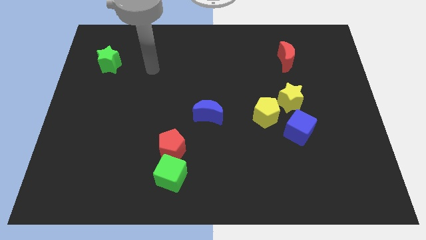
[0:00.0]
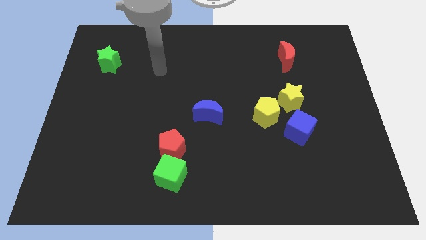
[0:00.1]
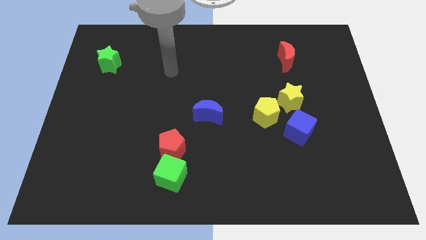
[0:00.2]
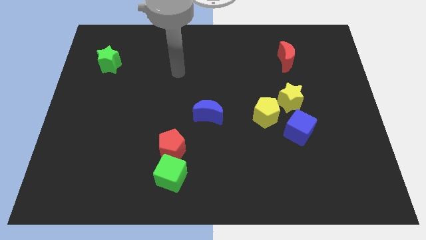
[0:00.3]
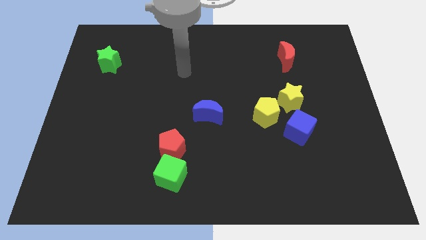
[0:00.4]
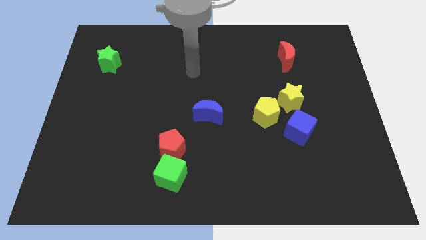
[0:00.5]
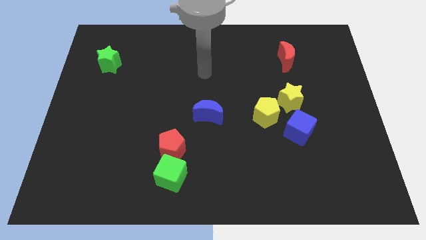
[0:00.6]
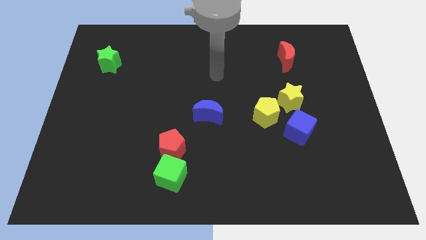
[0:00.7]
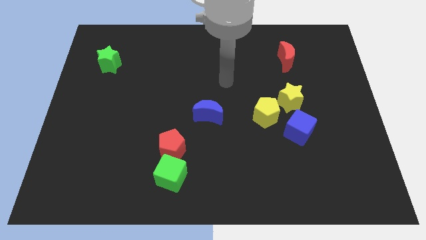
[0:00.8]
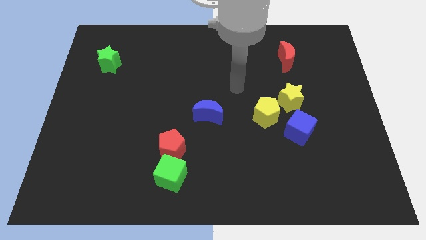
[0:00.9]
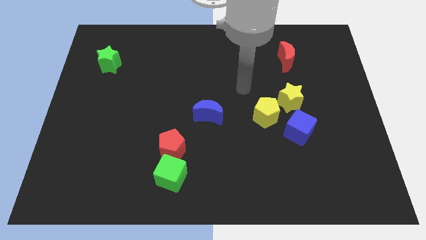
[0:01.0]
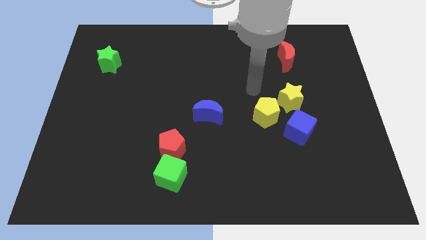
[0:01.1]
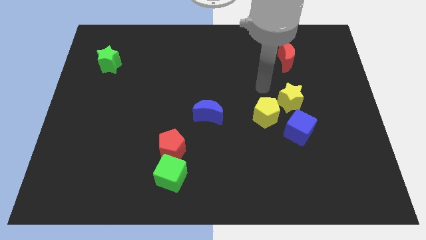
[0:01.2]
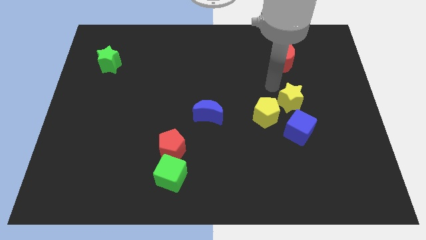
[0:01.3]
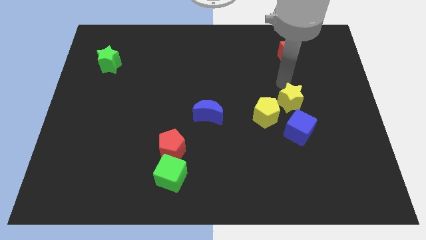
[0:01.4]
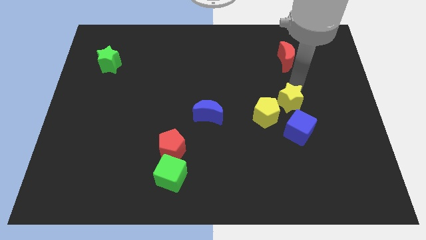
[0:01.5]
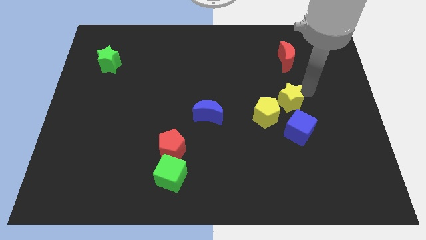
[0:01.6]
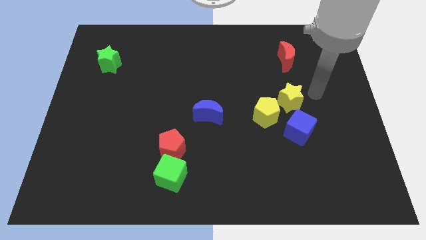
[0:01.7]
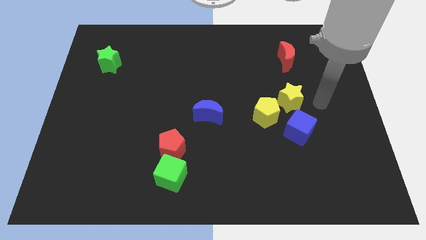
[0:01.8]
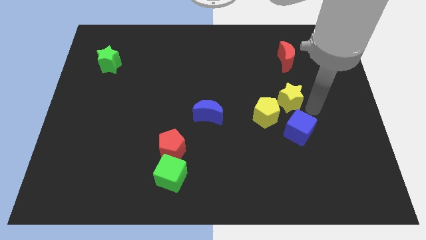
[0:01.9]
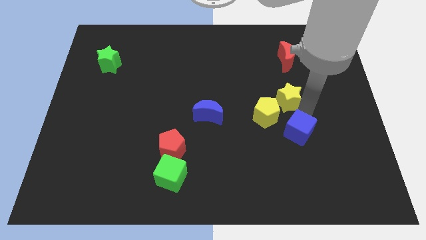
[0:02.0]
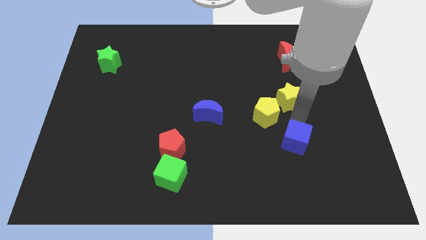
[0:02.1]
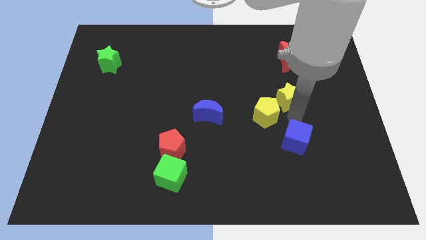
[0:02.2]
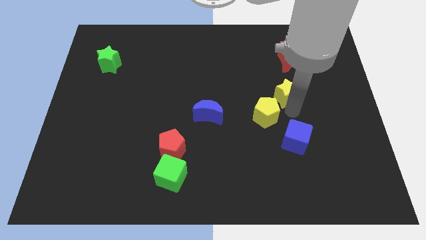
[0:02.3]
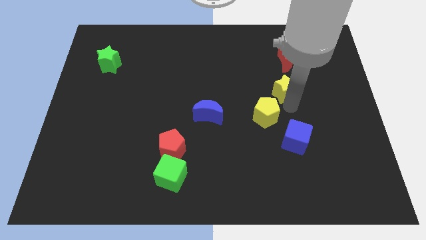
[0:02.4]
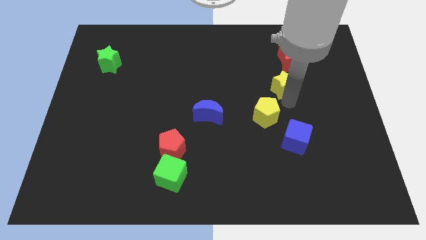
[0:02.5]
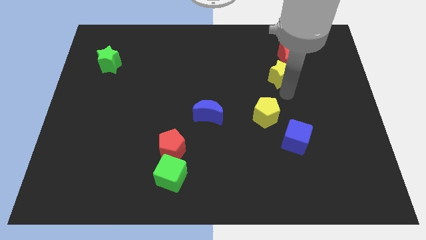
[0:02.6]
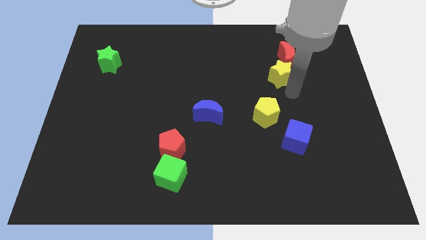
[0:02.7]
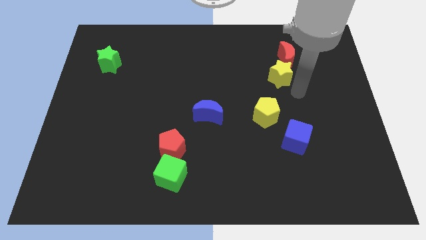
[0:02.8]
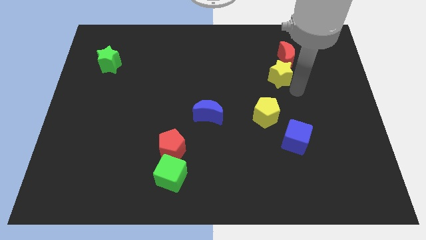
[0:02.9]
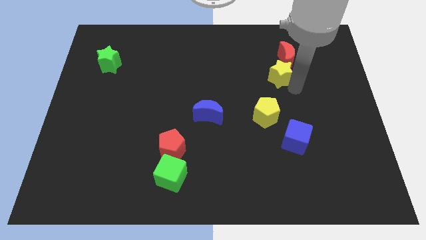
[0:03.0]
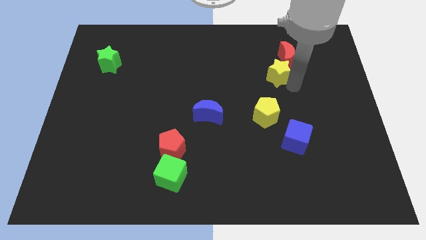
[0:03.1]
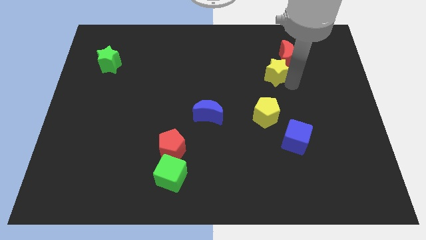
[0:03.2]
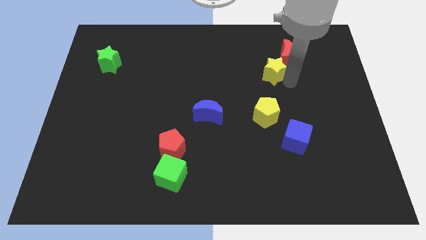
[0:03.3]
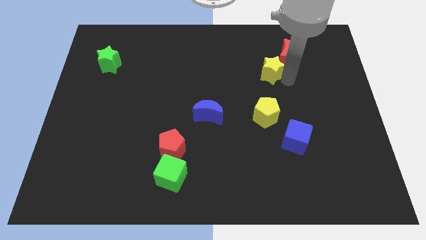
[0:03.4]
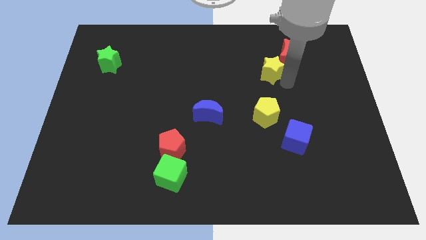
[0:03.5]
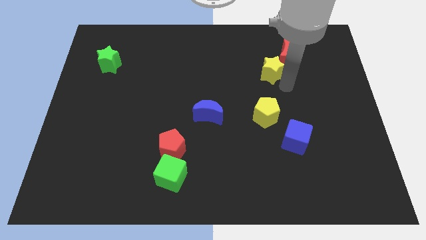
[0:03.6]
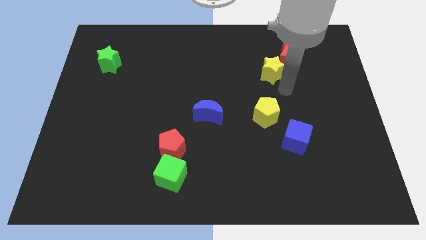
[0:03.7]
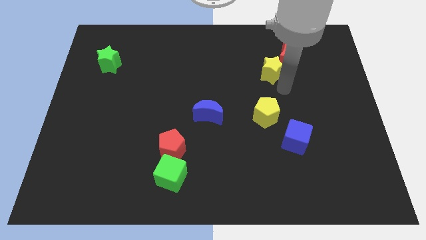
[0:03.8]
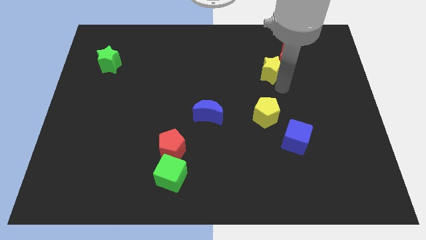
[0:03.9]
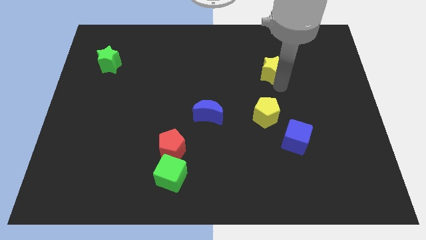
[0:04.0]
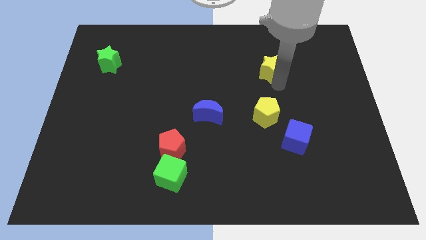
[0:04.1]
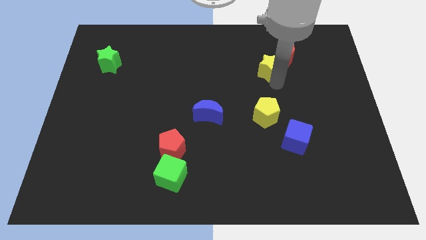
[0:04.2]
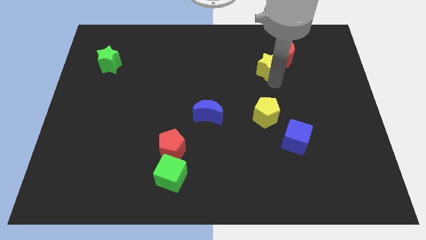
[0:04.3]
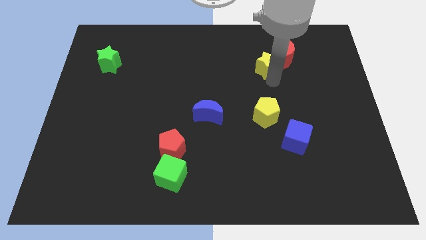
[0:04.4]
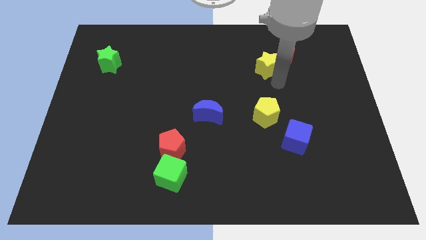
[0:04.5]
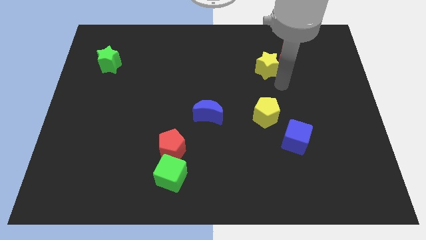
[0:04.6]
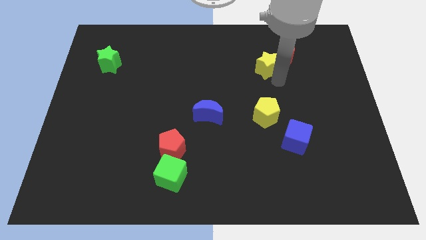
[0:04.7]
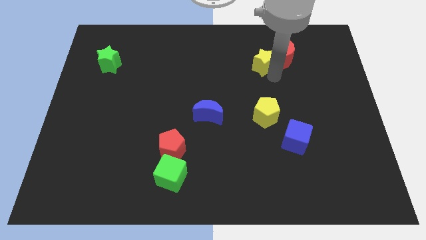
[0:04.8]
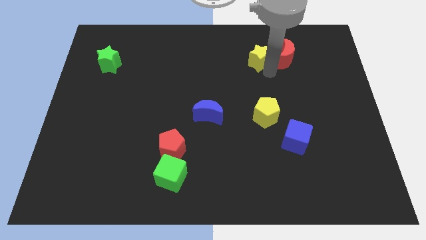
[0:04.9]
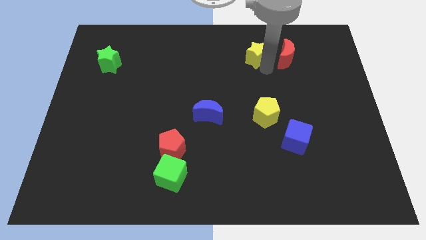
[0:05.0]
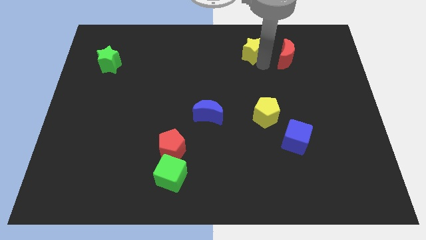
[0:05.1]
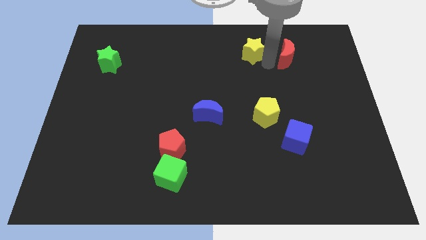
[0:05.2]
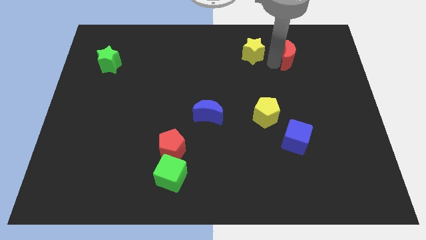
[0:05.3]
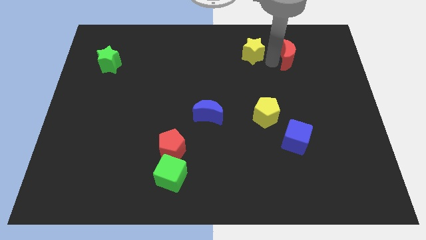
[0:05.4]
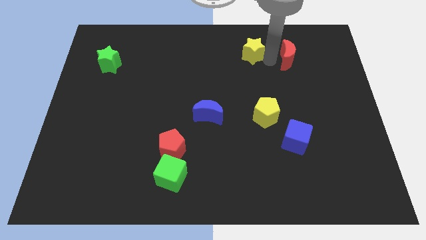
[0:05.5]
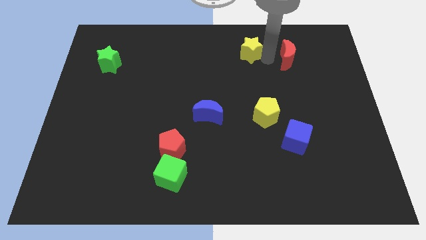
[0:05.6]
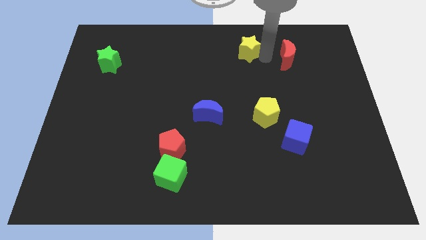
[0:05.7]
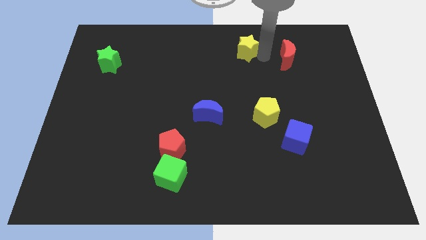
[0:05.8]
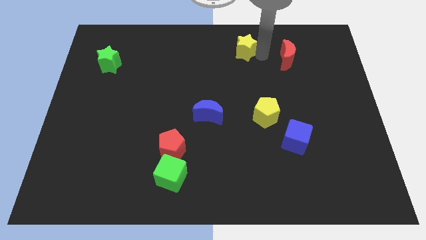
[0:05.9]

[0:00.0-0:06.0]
push the yellow star to the towards your base

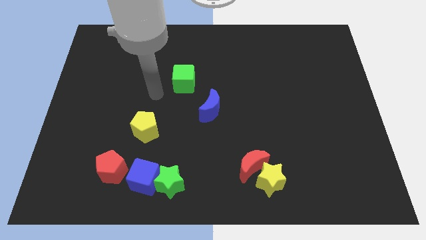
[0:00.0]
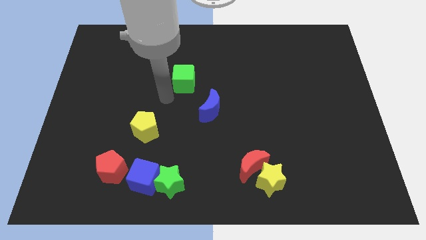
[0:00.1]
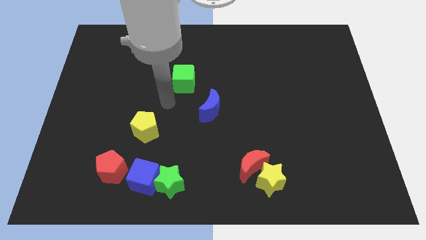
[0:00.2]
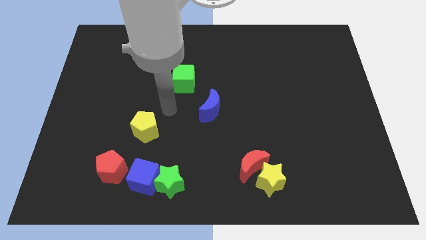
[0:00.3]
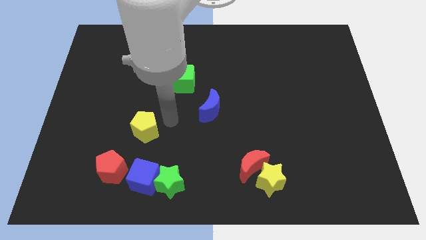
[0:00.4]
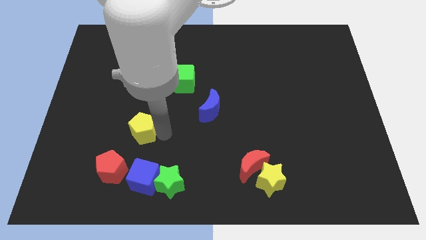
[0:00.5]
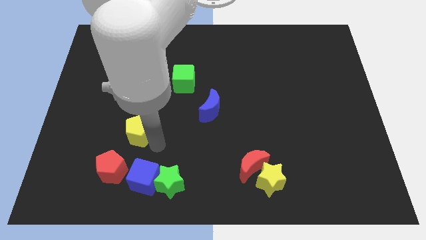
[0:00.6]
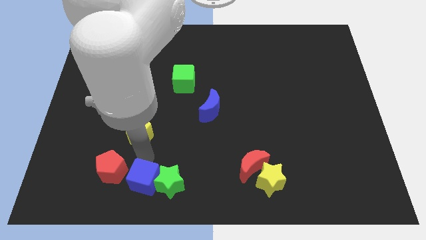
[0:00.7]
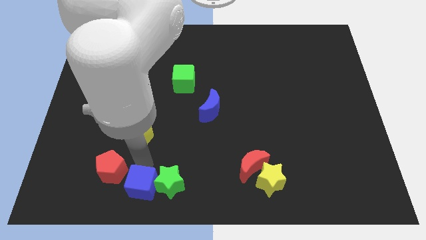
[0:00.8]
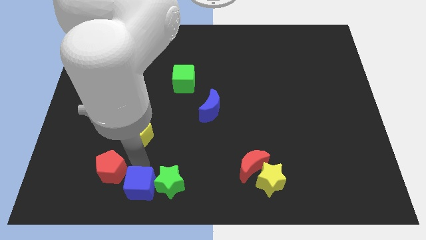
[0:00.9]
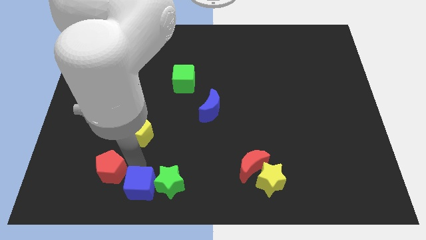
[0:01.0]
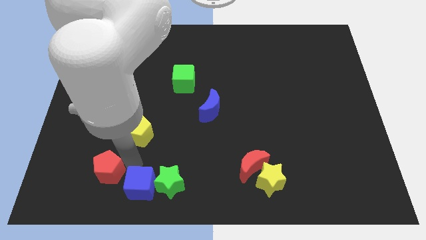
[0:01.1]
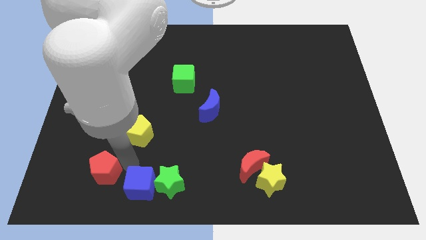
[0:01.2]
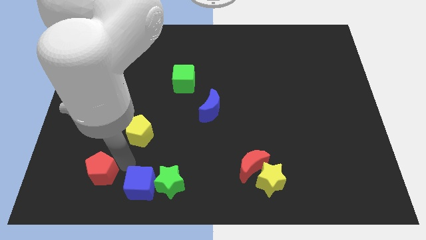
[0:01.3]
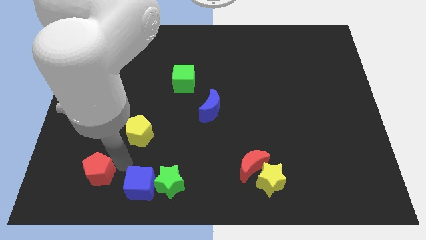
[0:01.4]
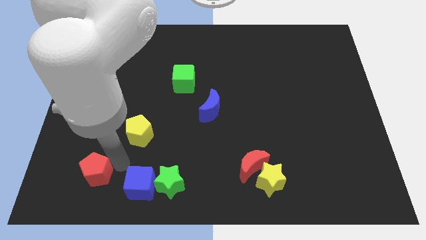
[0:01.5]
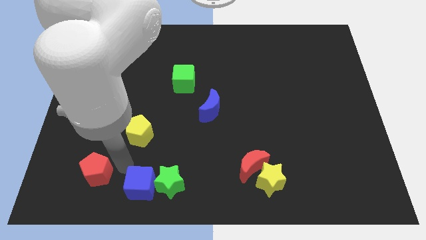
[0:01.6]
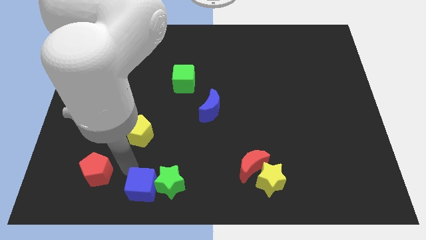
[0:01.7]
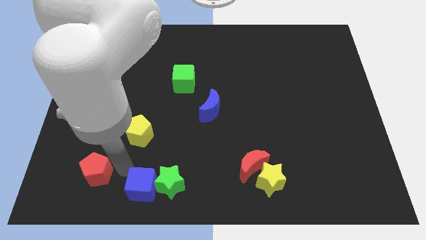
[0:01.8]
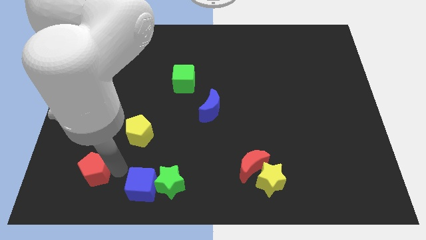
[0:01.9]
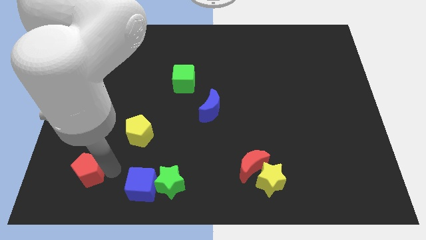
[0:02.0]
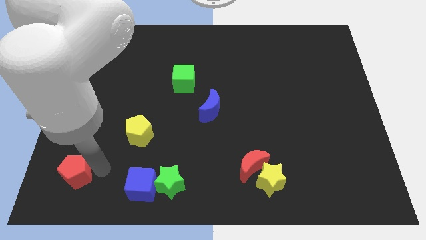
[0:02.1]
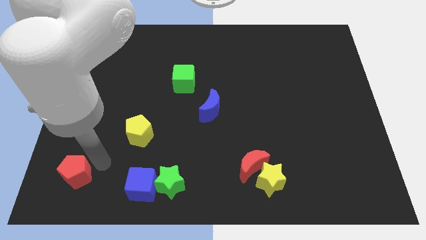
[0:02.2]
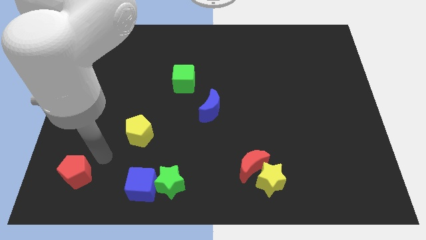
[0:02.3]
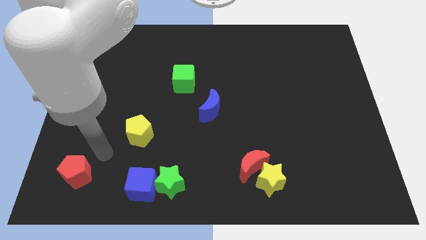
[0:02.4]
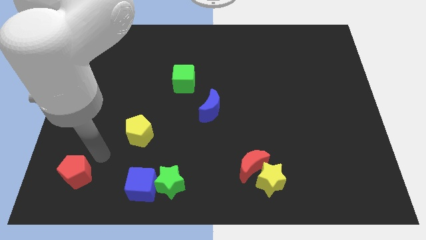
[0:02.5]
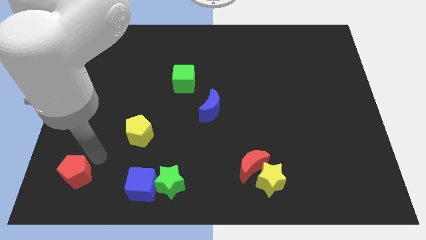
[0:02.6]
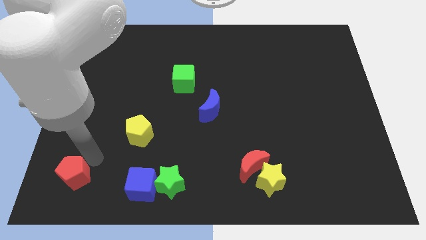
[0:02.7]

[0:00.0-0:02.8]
slide the red pentagon to the bottom left corner
